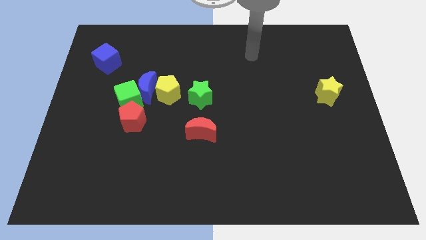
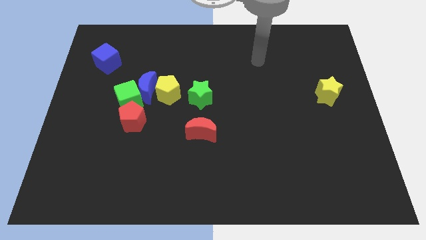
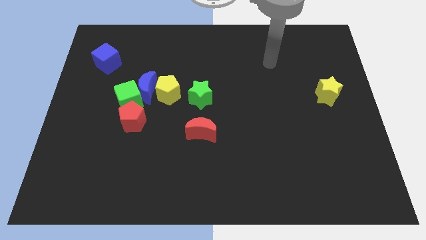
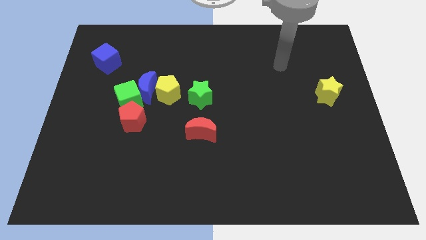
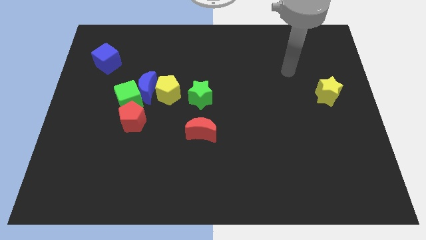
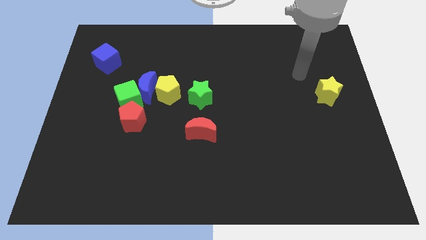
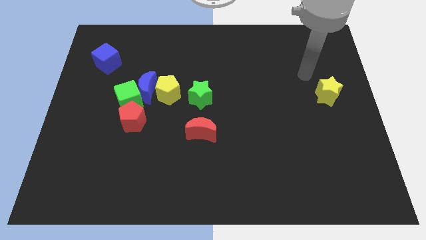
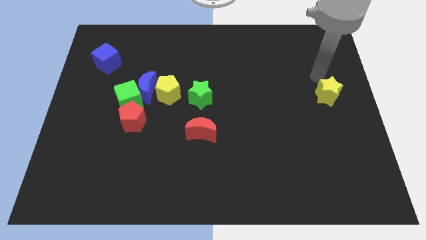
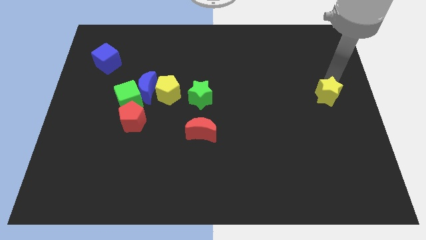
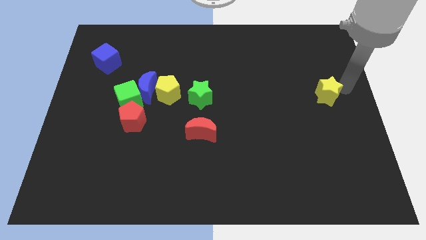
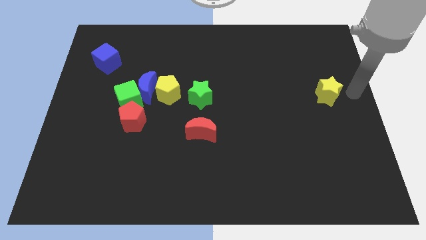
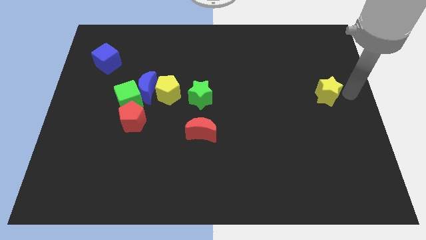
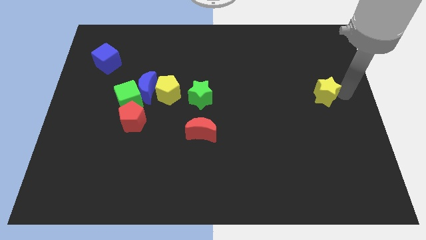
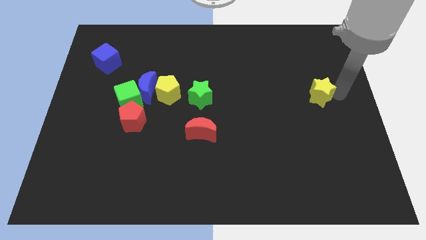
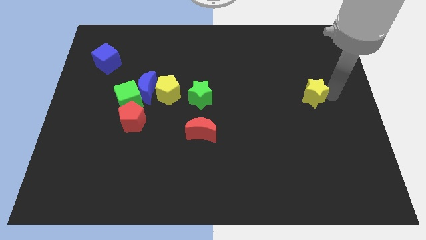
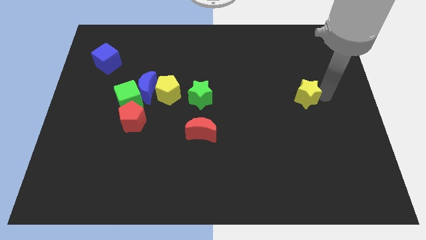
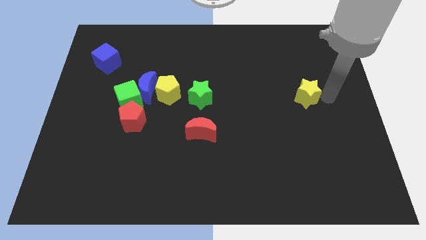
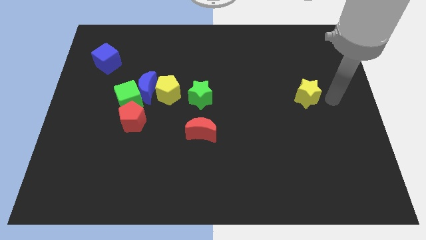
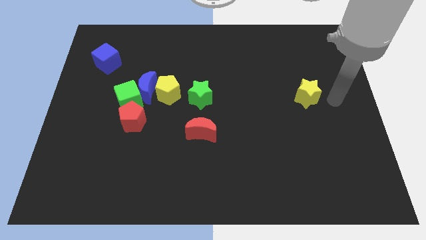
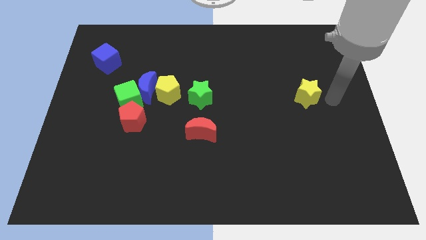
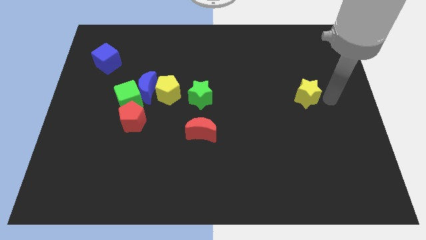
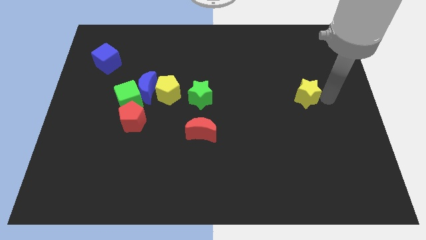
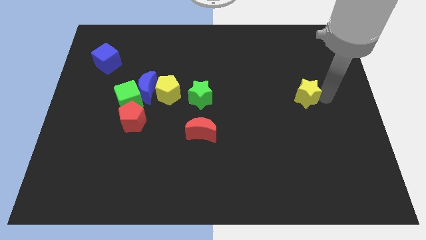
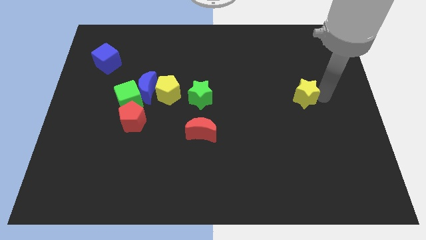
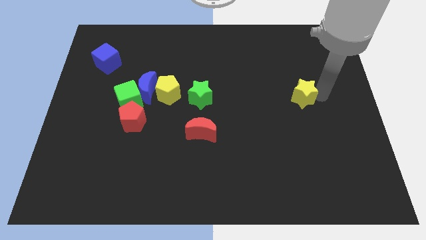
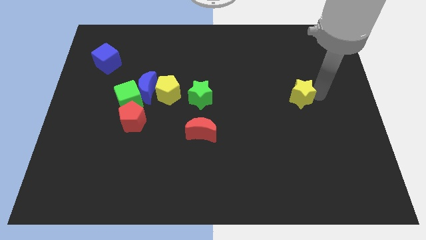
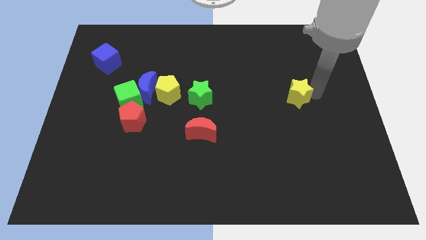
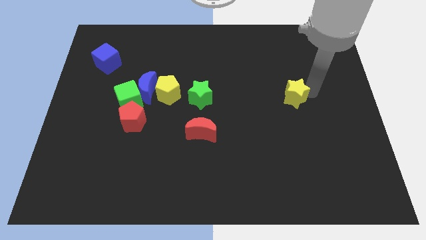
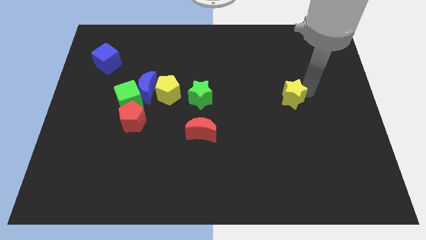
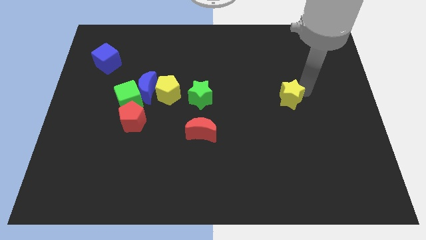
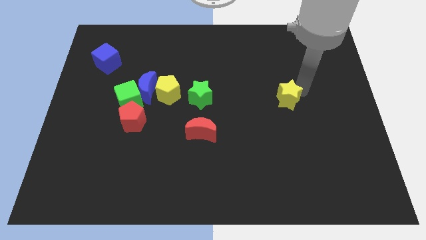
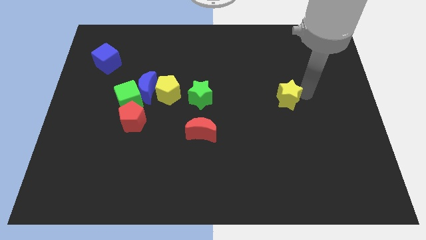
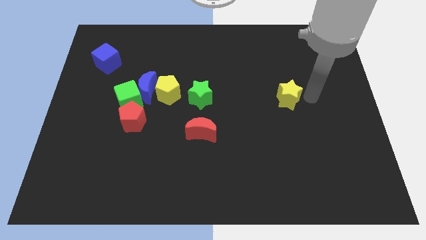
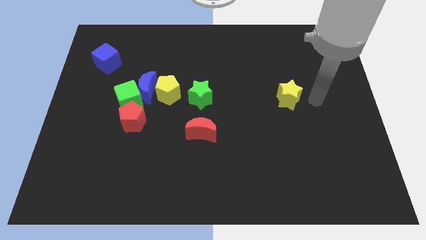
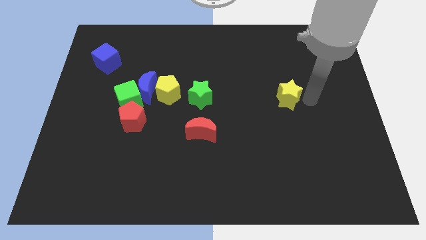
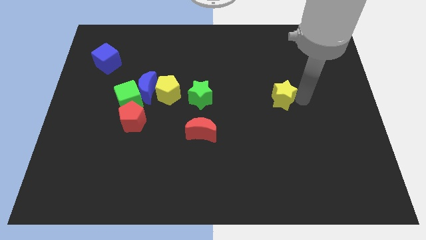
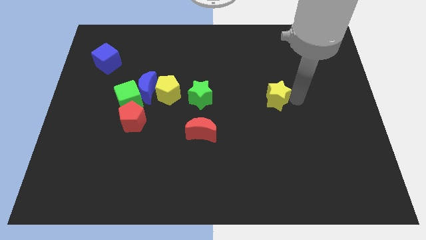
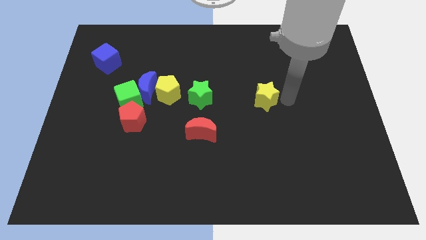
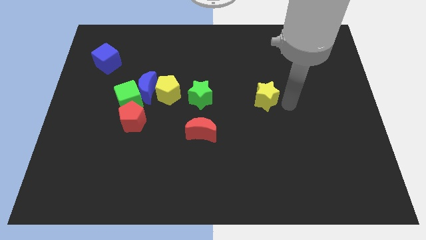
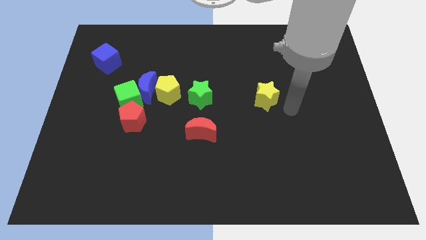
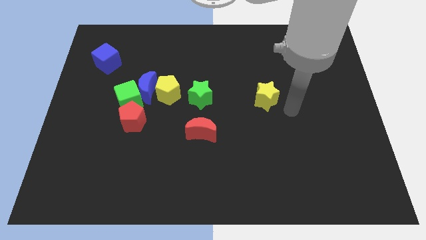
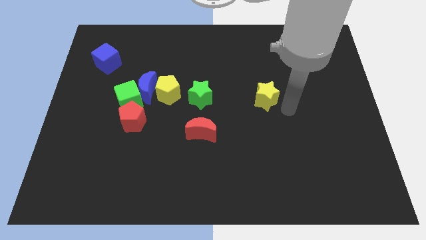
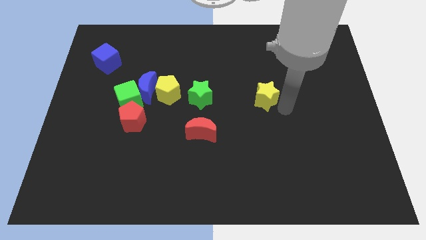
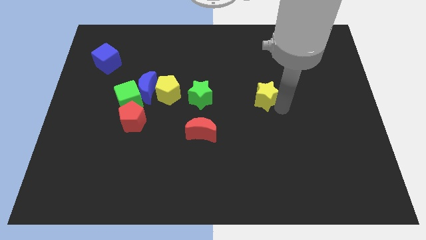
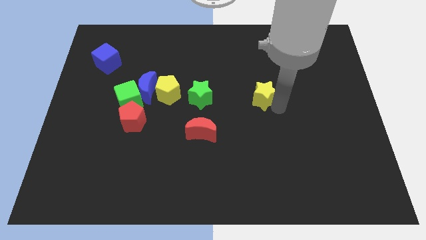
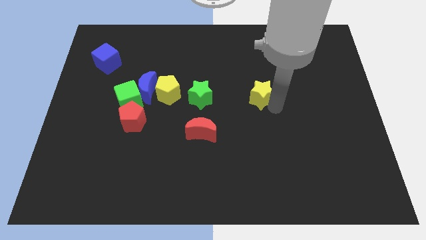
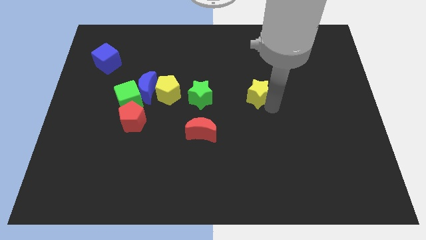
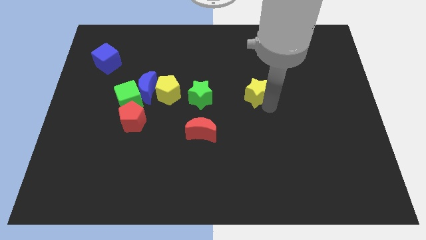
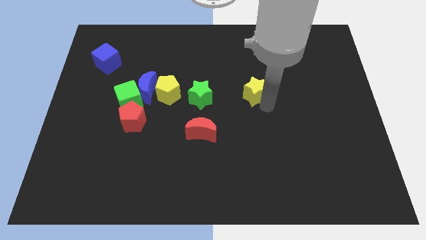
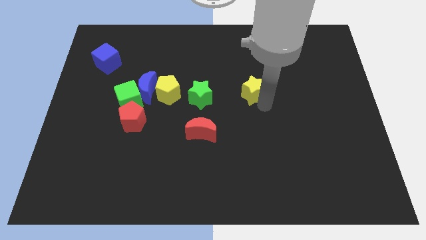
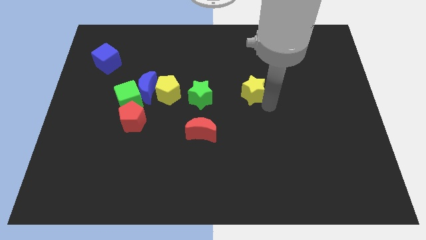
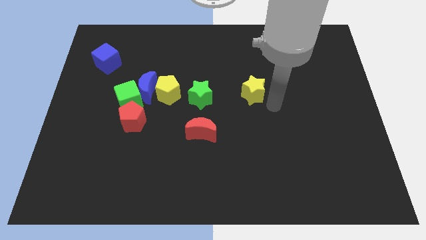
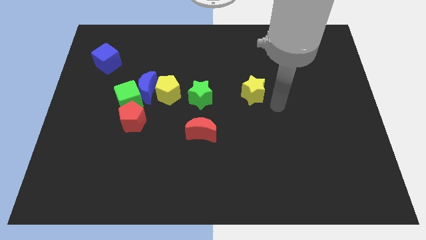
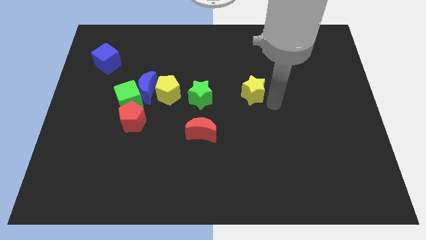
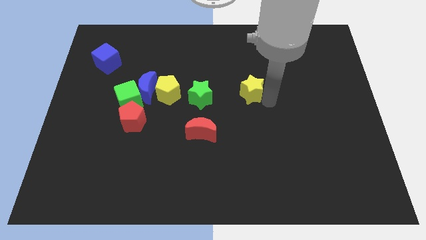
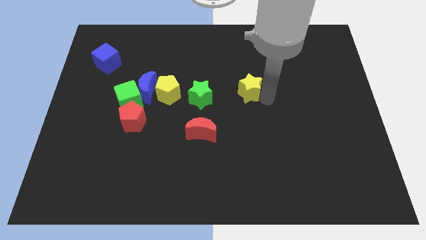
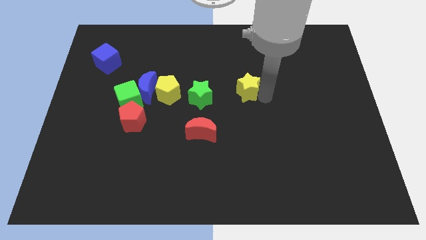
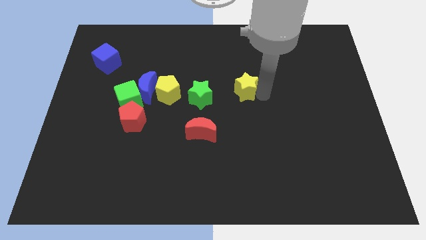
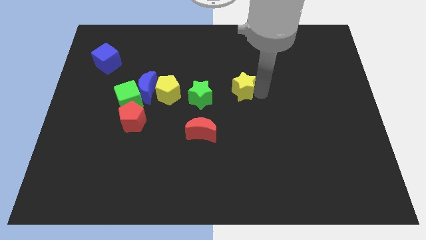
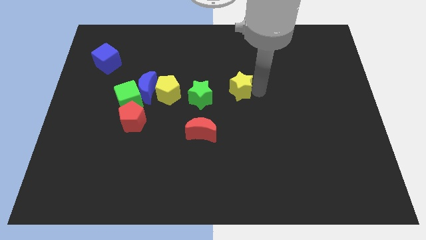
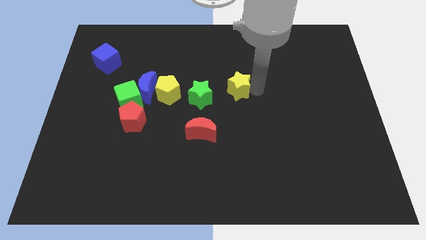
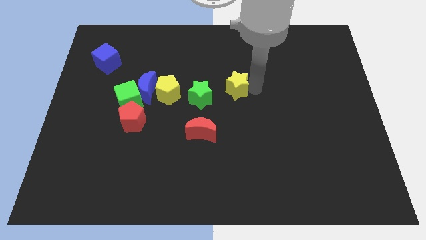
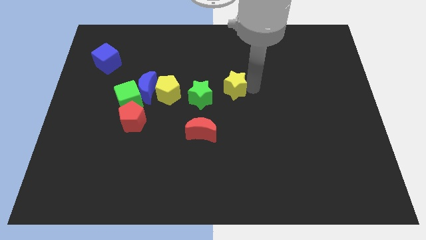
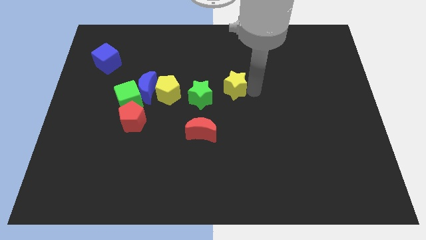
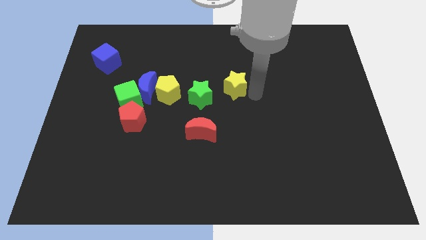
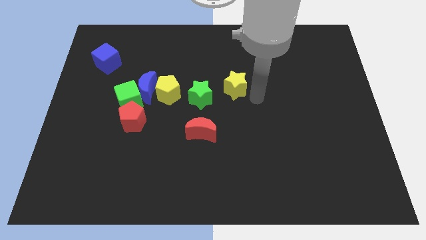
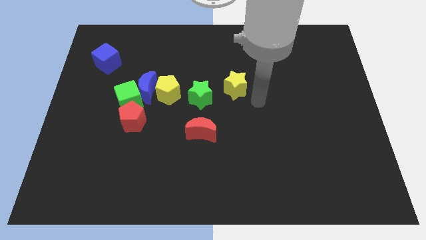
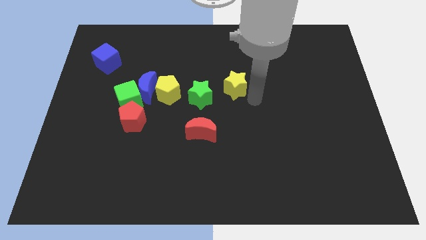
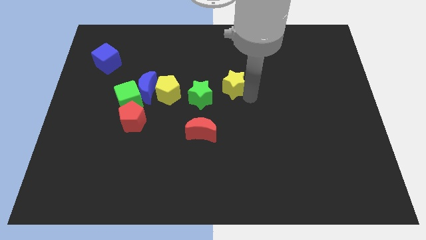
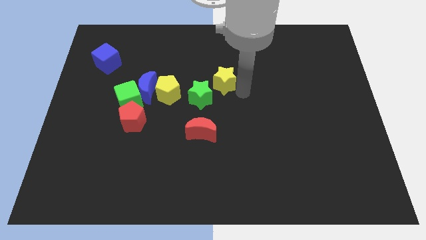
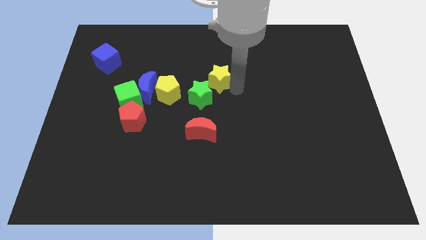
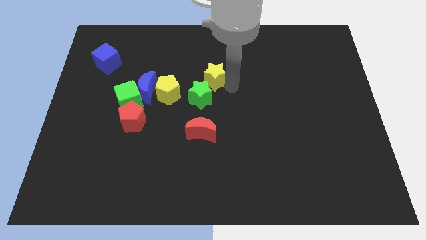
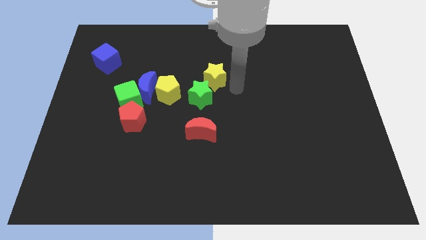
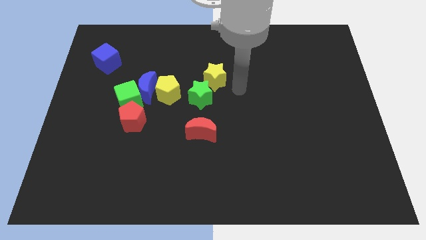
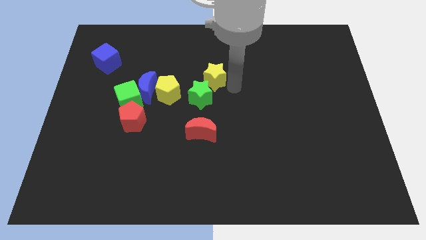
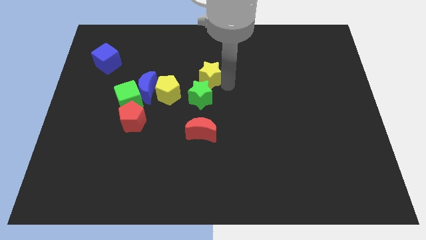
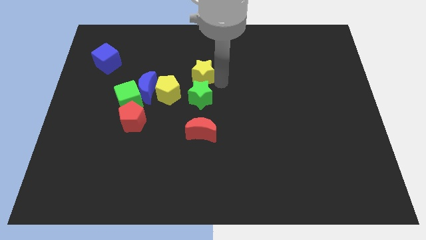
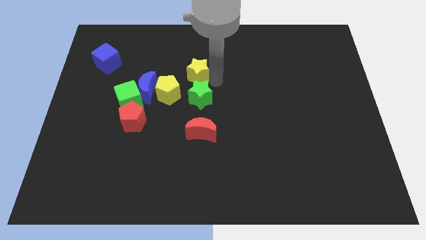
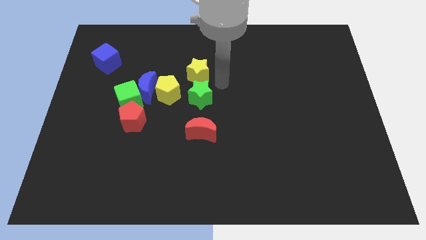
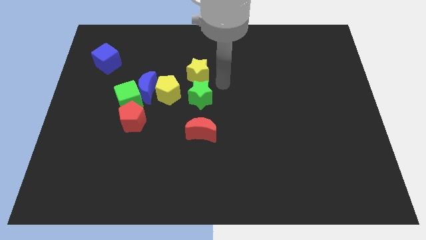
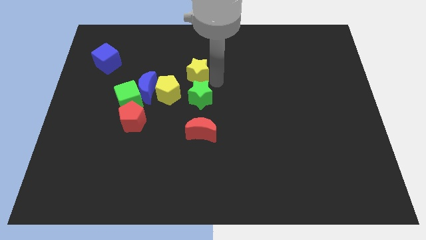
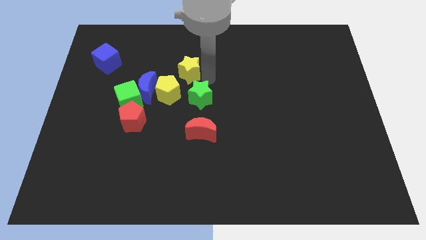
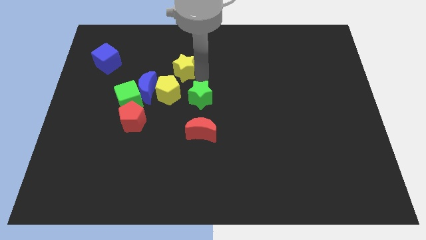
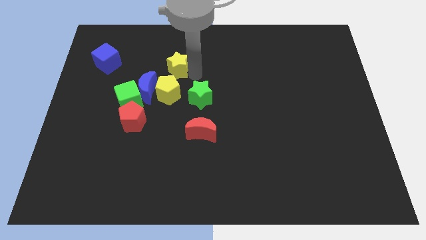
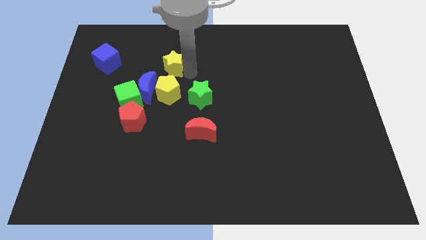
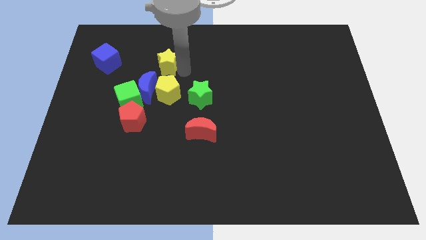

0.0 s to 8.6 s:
slide the yellow star to the top of the blue moon
